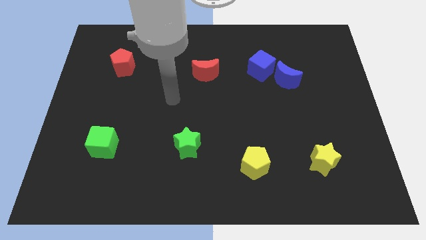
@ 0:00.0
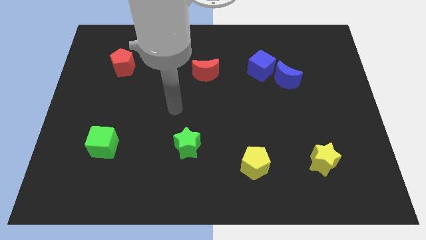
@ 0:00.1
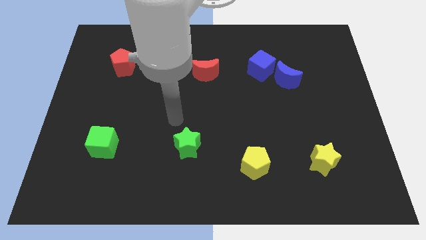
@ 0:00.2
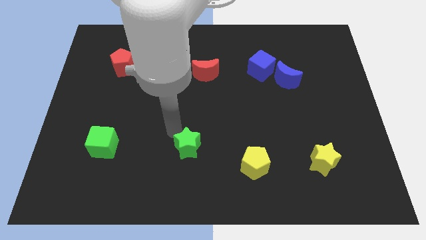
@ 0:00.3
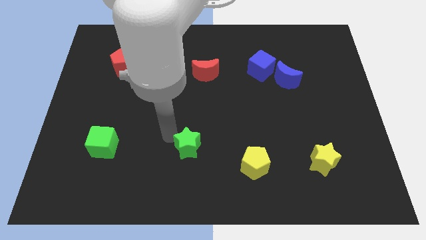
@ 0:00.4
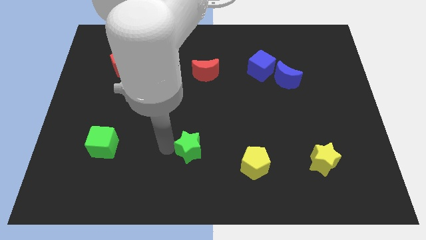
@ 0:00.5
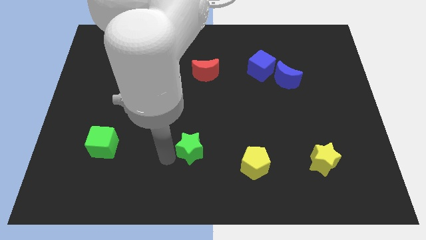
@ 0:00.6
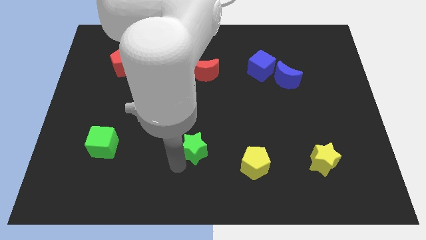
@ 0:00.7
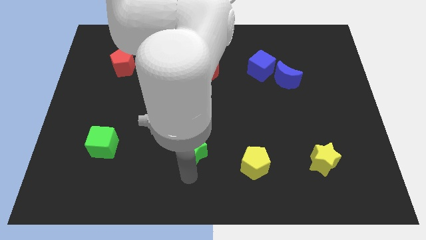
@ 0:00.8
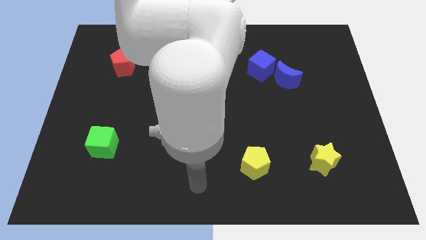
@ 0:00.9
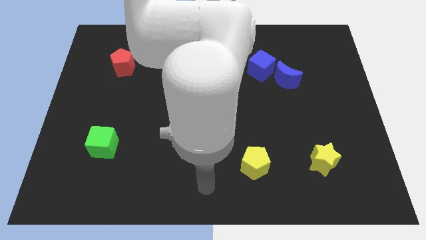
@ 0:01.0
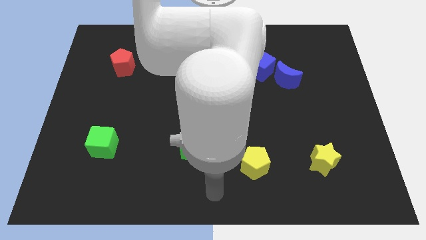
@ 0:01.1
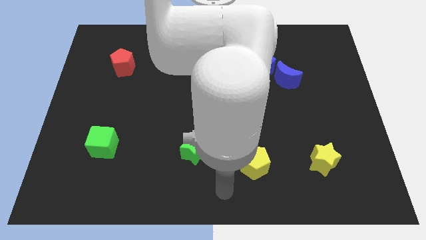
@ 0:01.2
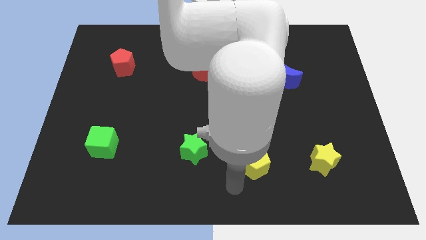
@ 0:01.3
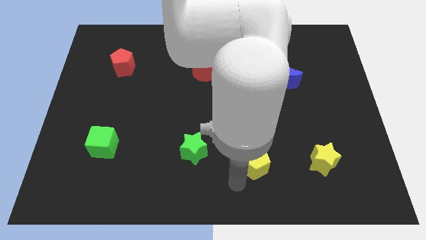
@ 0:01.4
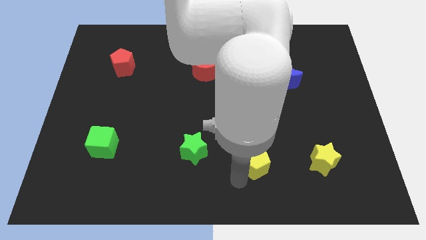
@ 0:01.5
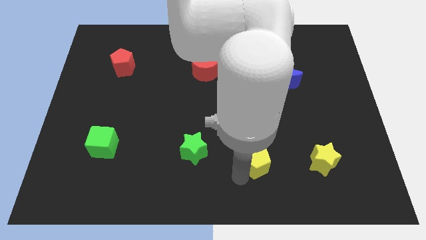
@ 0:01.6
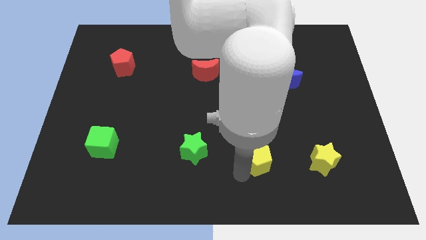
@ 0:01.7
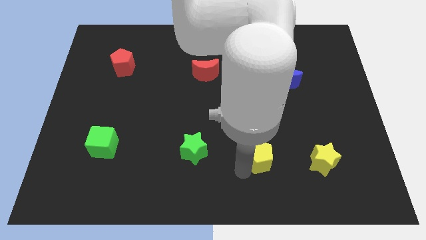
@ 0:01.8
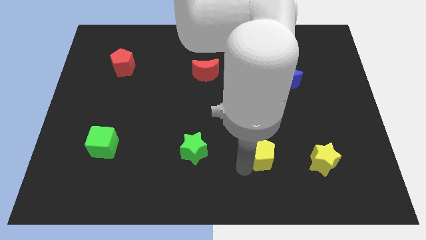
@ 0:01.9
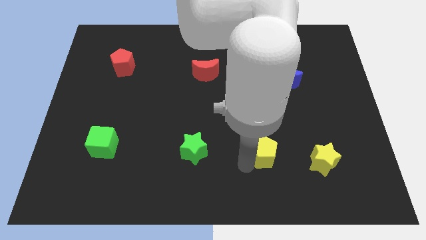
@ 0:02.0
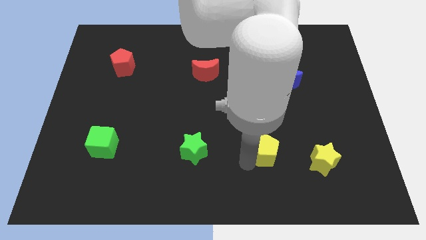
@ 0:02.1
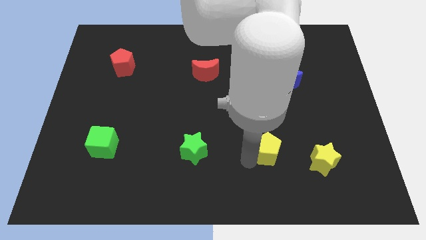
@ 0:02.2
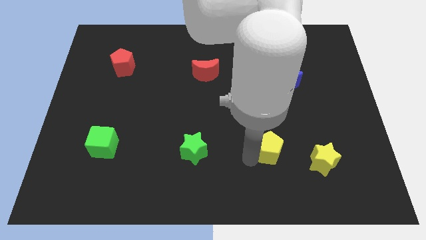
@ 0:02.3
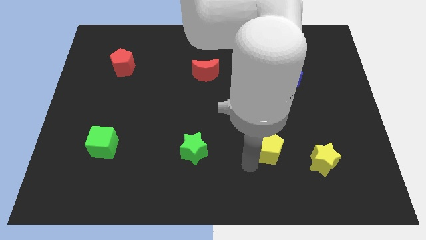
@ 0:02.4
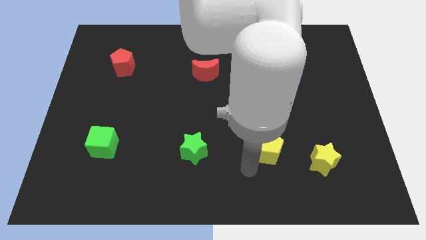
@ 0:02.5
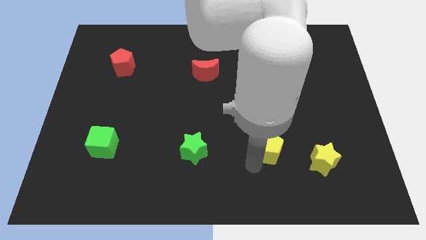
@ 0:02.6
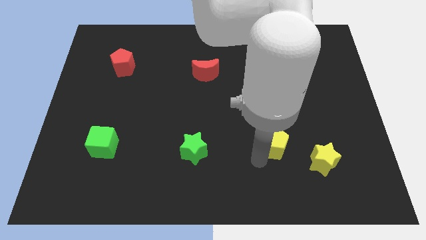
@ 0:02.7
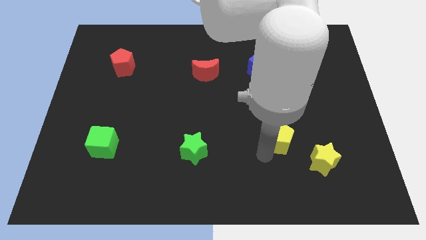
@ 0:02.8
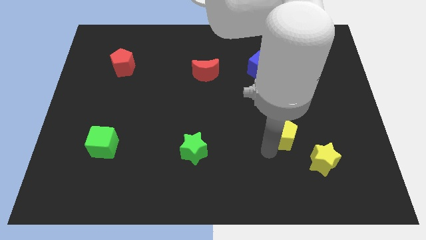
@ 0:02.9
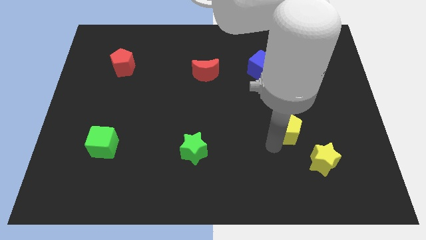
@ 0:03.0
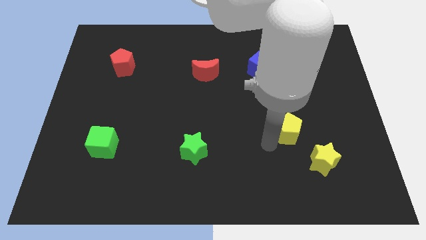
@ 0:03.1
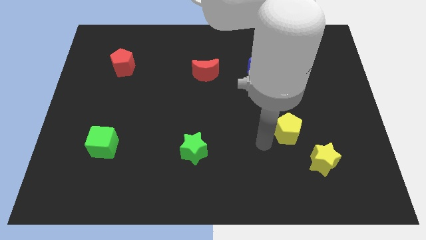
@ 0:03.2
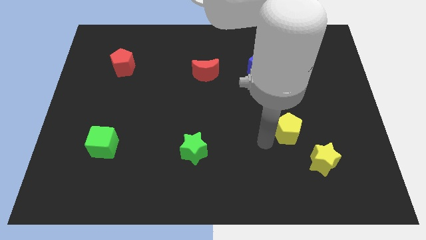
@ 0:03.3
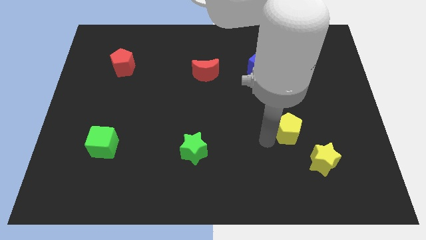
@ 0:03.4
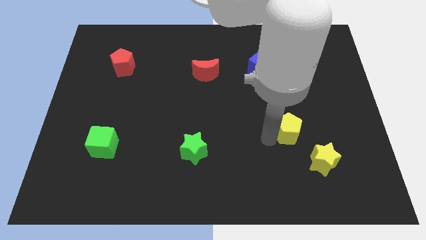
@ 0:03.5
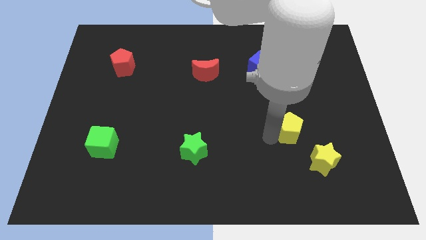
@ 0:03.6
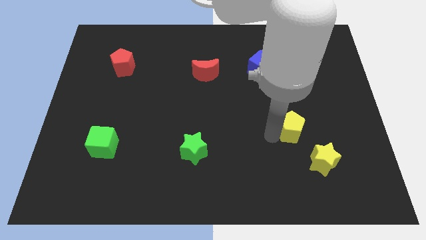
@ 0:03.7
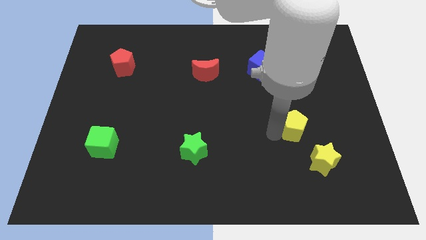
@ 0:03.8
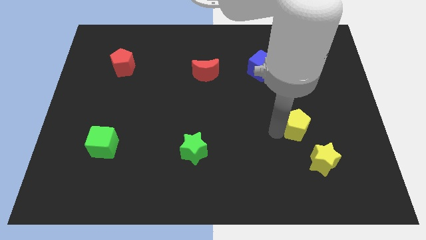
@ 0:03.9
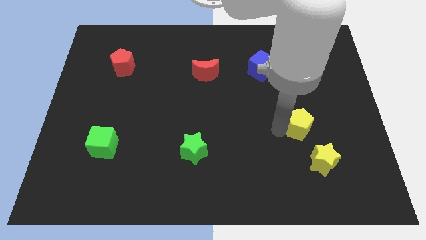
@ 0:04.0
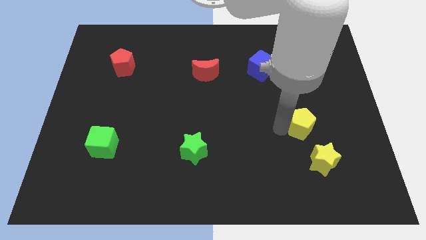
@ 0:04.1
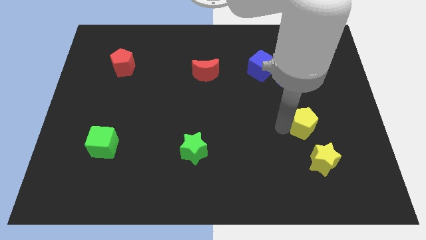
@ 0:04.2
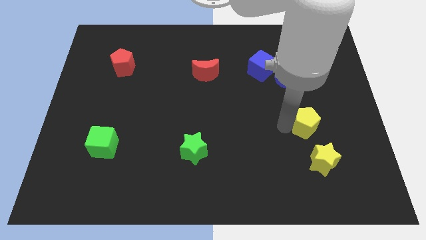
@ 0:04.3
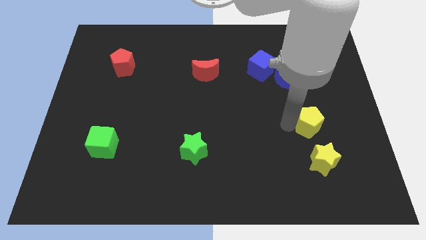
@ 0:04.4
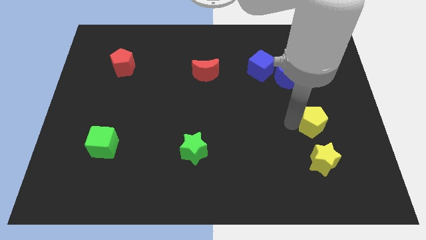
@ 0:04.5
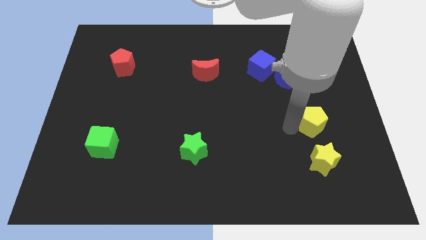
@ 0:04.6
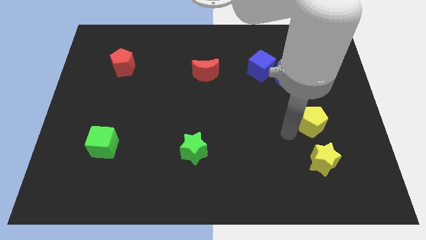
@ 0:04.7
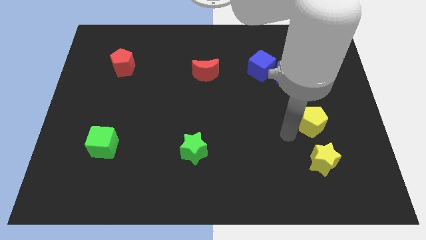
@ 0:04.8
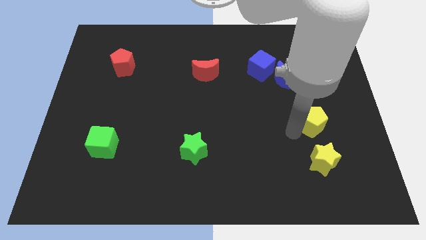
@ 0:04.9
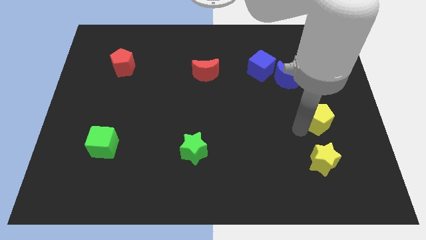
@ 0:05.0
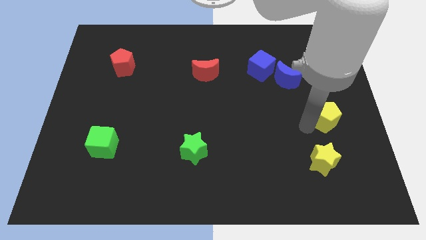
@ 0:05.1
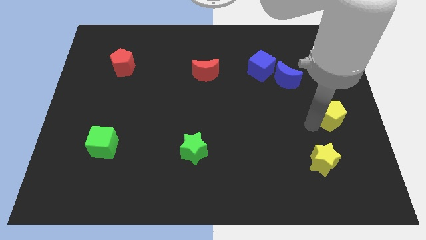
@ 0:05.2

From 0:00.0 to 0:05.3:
put the yellow pentagon to the right side

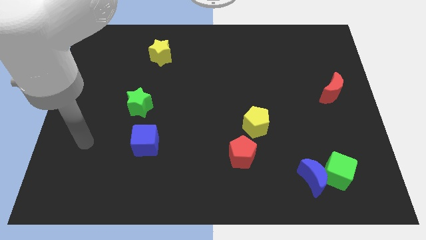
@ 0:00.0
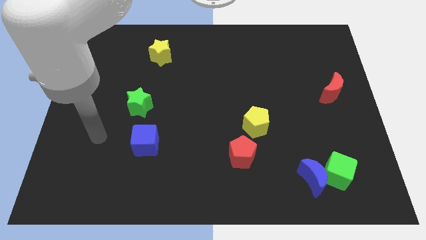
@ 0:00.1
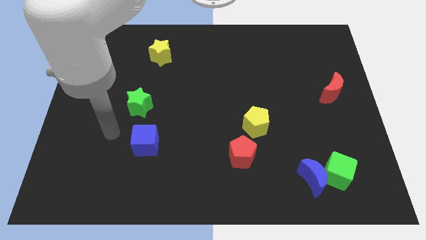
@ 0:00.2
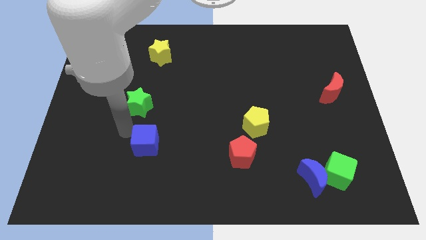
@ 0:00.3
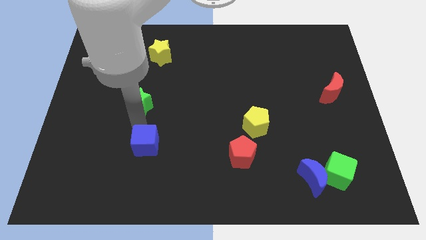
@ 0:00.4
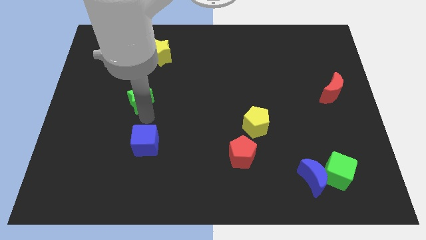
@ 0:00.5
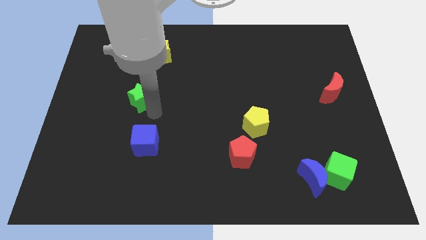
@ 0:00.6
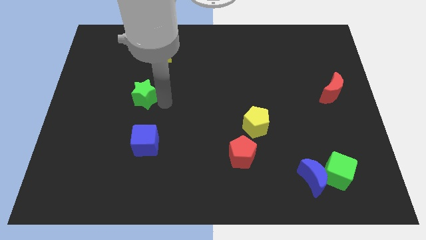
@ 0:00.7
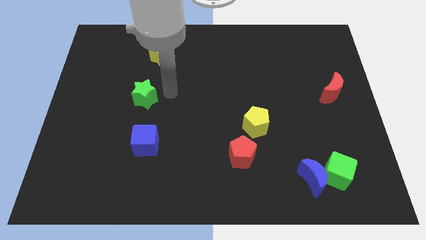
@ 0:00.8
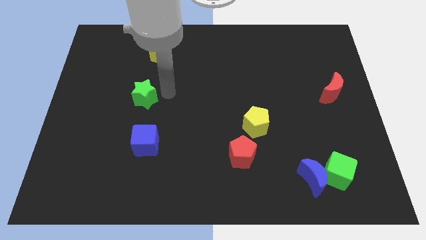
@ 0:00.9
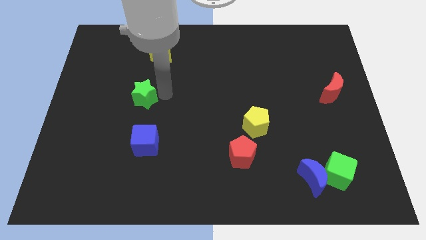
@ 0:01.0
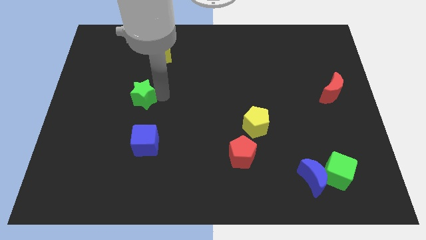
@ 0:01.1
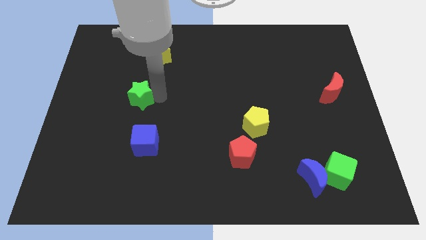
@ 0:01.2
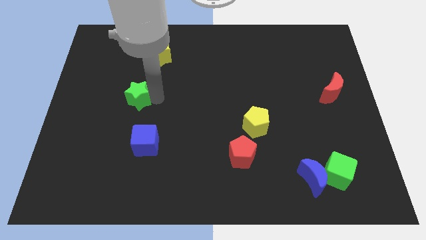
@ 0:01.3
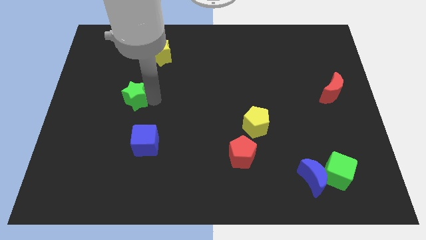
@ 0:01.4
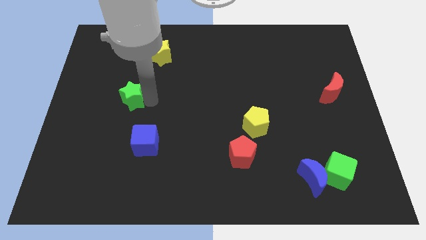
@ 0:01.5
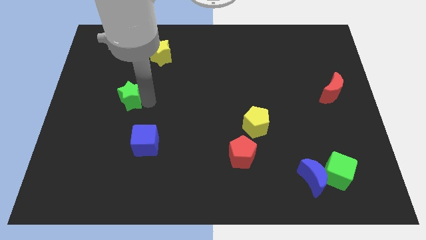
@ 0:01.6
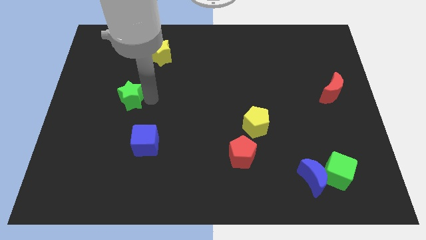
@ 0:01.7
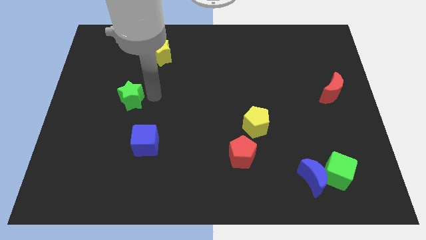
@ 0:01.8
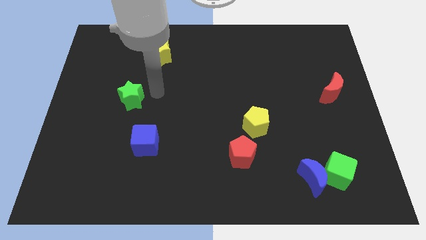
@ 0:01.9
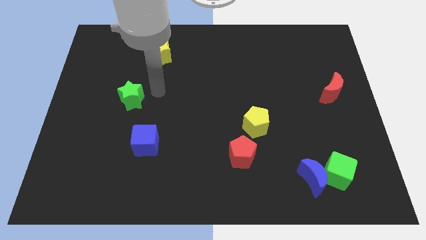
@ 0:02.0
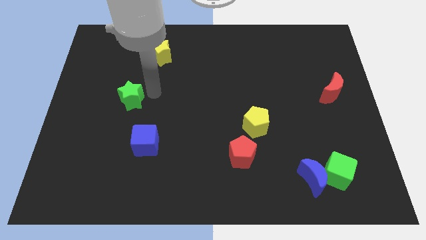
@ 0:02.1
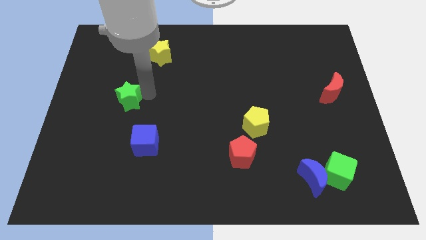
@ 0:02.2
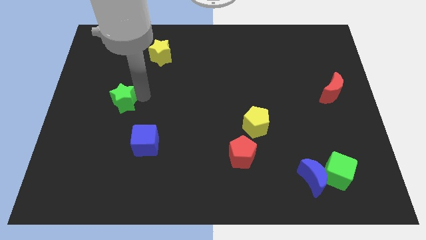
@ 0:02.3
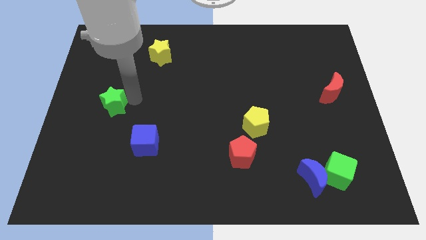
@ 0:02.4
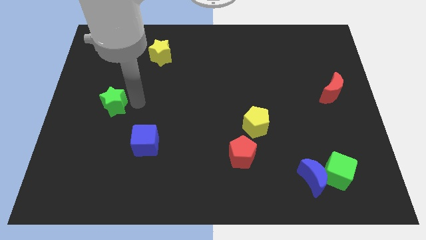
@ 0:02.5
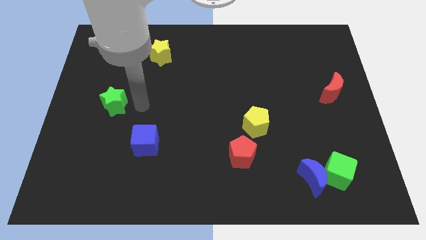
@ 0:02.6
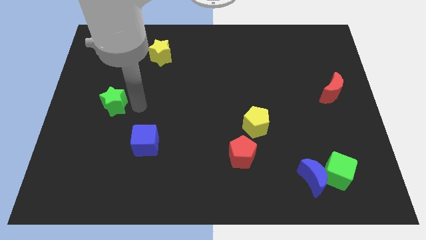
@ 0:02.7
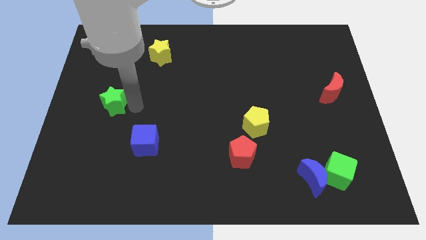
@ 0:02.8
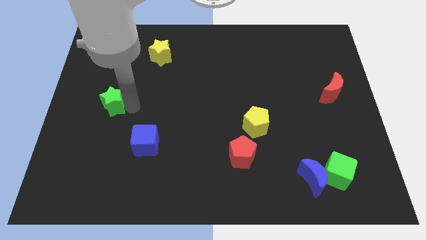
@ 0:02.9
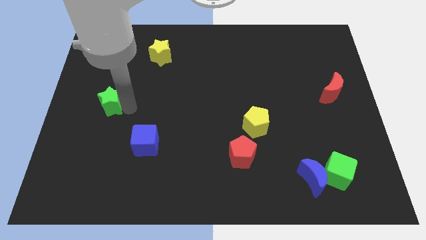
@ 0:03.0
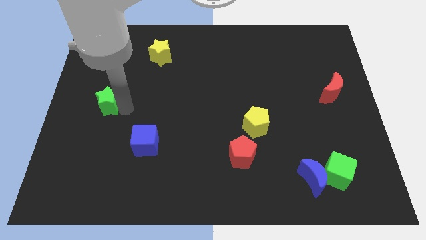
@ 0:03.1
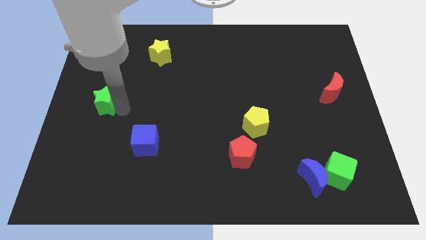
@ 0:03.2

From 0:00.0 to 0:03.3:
slide the green star to the left side
